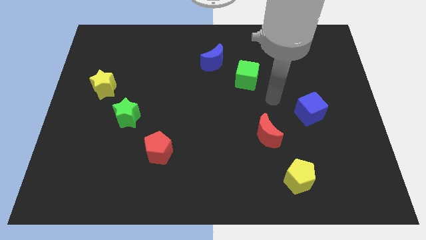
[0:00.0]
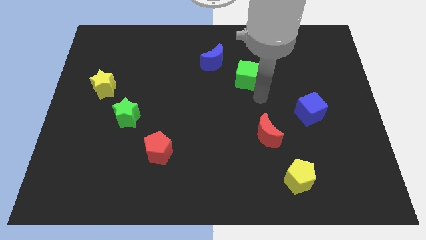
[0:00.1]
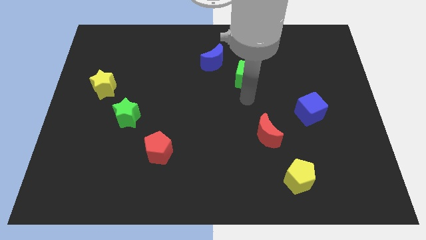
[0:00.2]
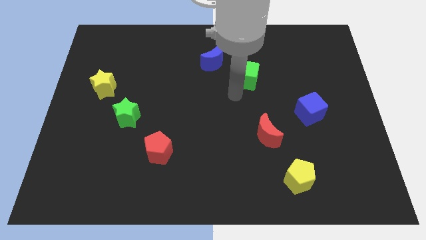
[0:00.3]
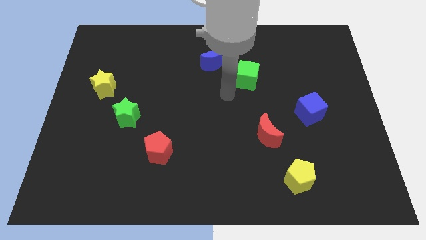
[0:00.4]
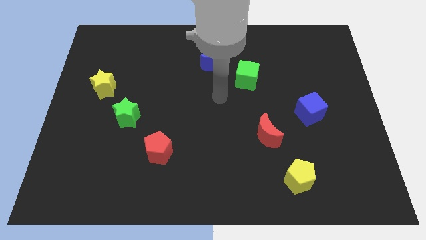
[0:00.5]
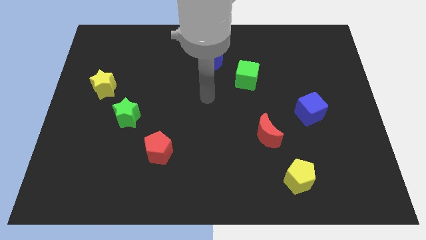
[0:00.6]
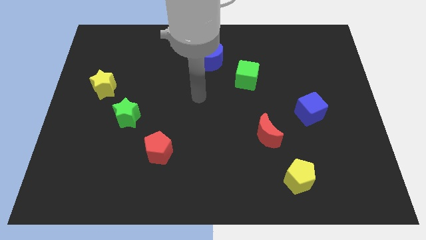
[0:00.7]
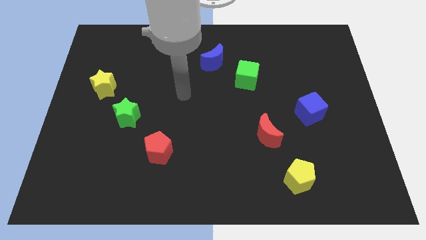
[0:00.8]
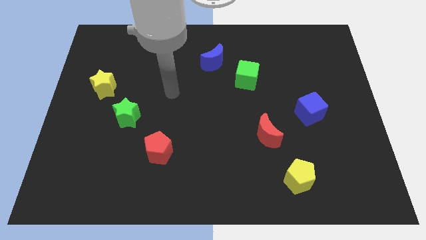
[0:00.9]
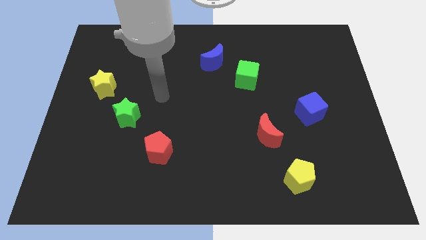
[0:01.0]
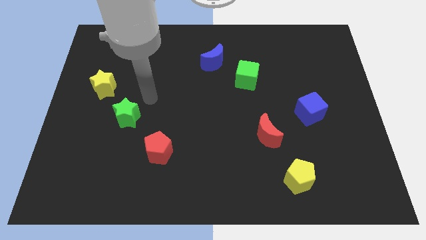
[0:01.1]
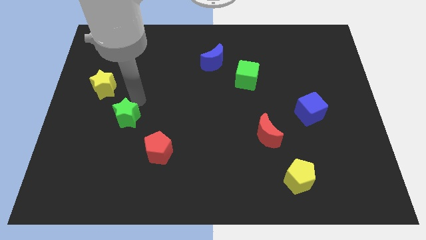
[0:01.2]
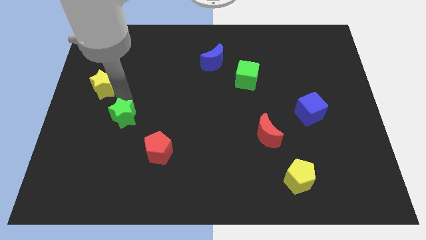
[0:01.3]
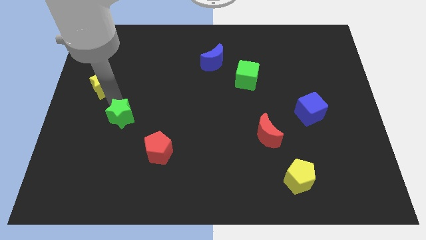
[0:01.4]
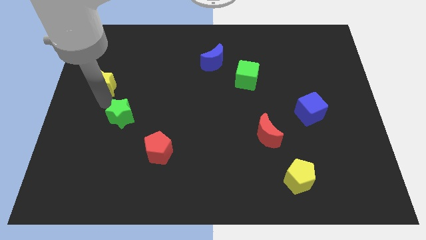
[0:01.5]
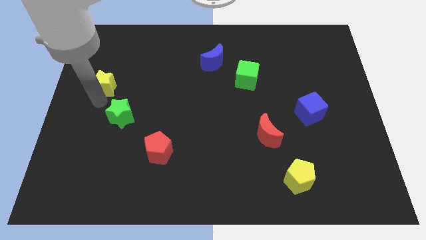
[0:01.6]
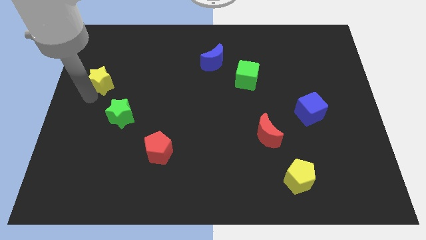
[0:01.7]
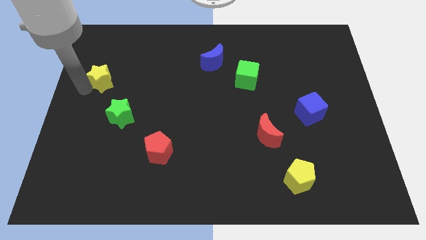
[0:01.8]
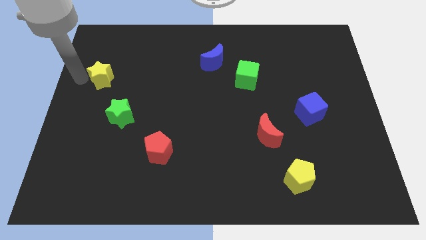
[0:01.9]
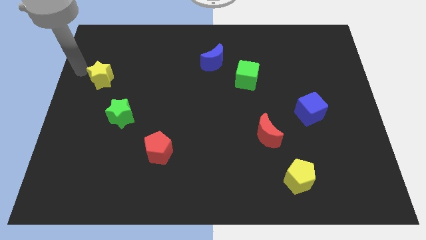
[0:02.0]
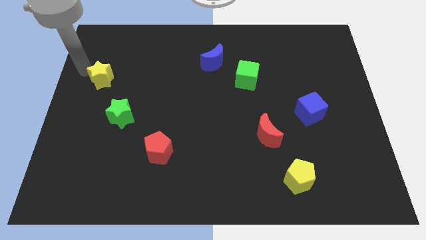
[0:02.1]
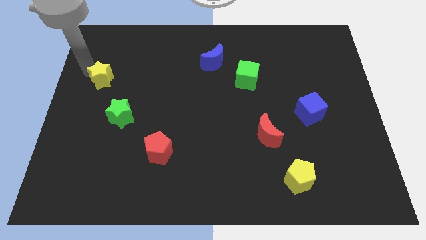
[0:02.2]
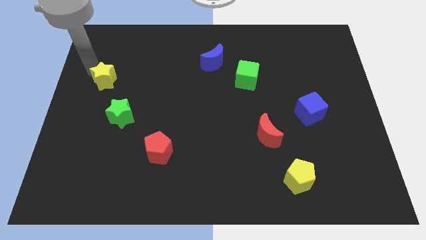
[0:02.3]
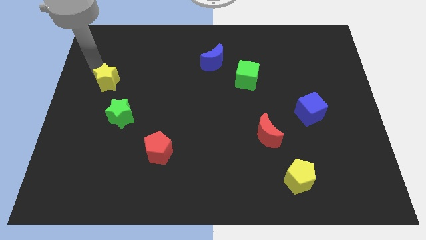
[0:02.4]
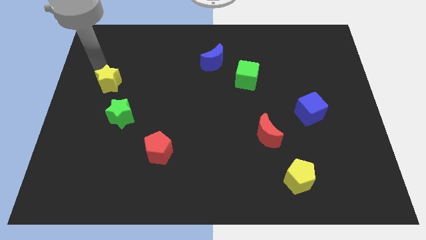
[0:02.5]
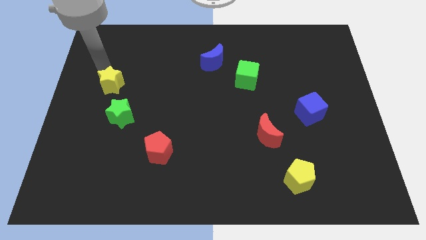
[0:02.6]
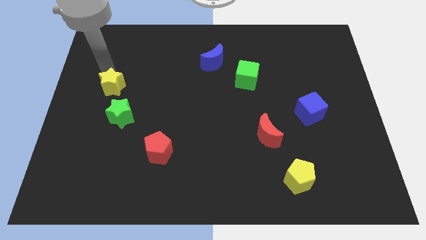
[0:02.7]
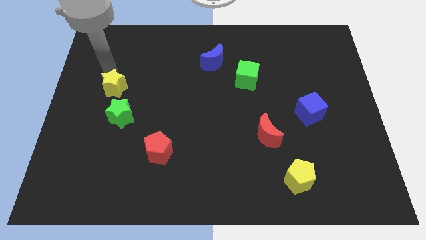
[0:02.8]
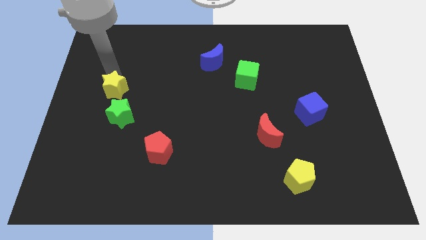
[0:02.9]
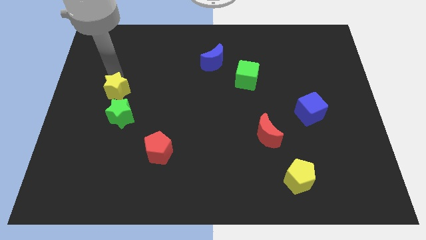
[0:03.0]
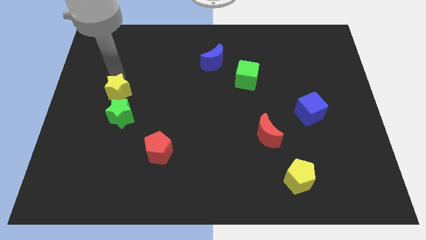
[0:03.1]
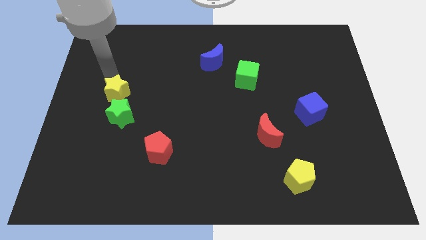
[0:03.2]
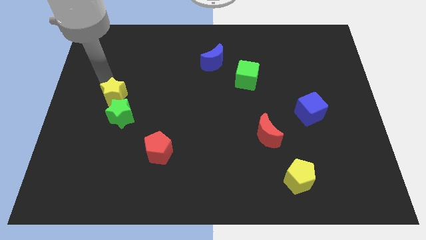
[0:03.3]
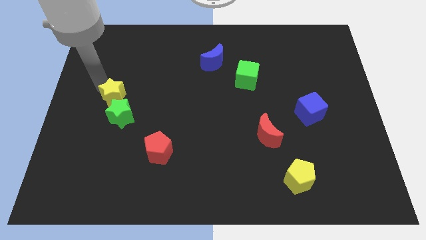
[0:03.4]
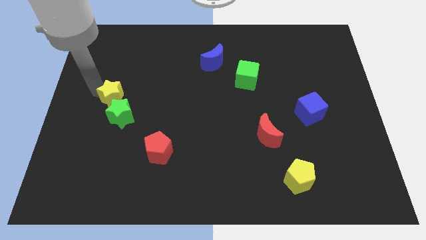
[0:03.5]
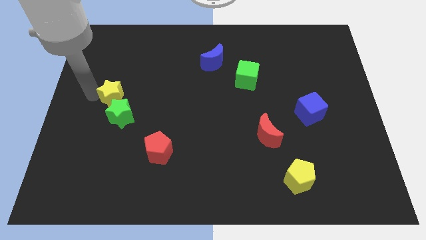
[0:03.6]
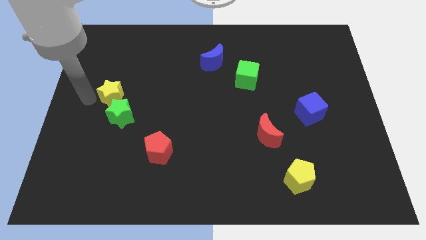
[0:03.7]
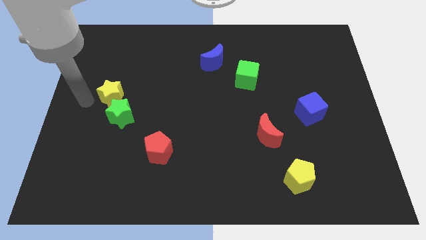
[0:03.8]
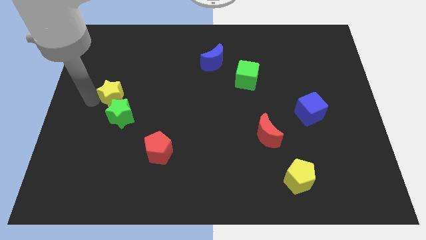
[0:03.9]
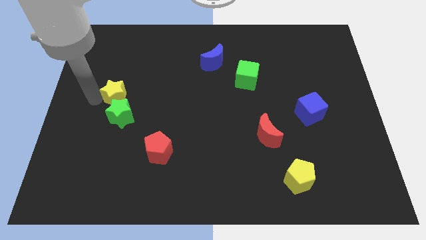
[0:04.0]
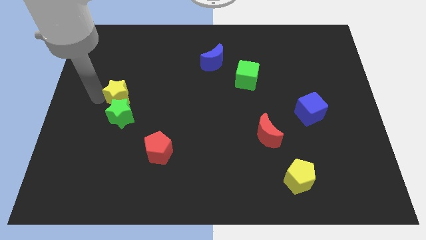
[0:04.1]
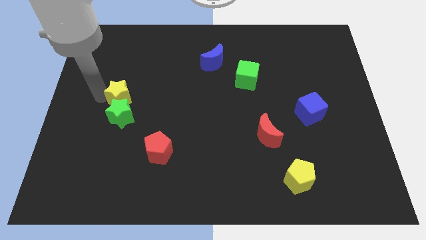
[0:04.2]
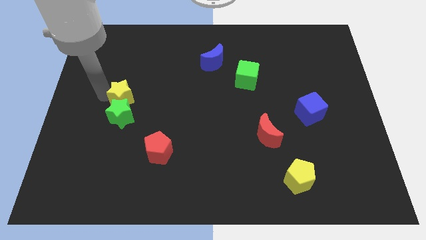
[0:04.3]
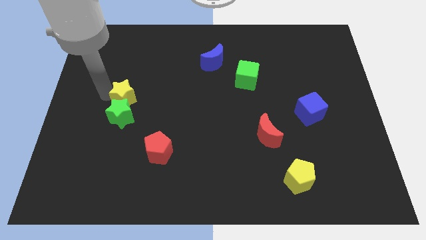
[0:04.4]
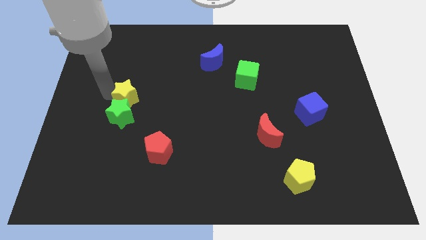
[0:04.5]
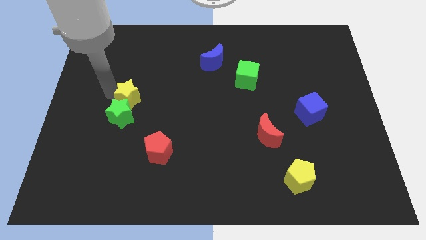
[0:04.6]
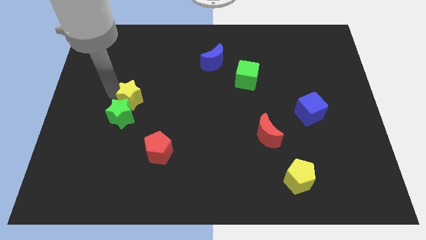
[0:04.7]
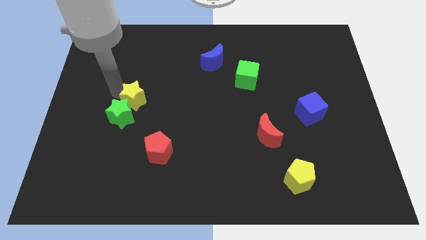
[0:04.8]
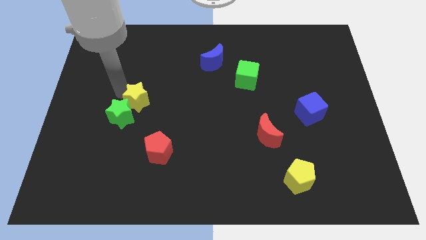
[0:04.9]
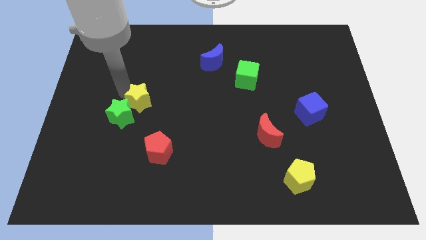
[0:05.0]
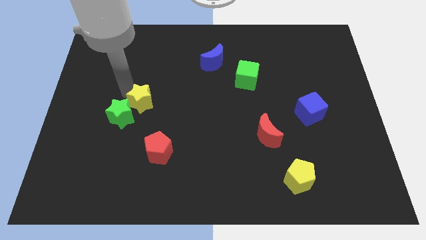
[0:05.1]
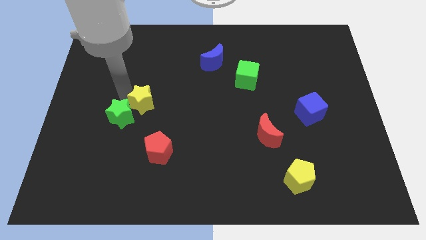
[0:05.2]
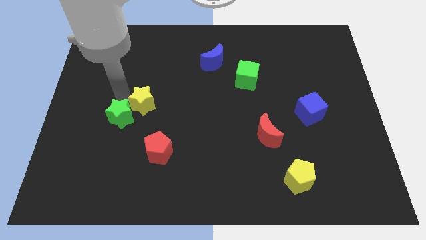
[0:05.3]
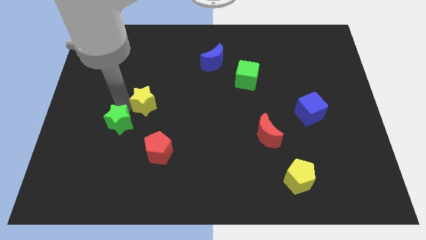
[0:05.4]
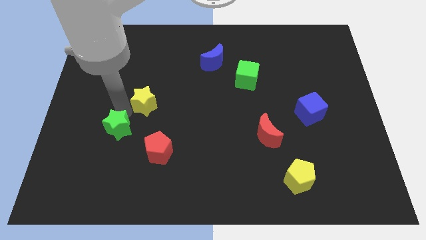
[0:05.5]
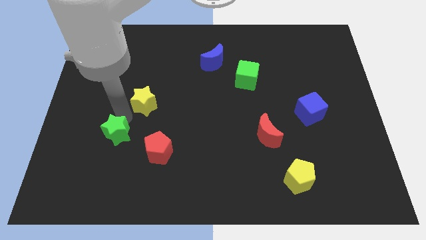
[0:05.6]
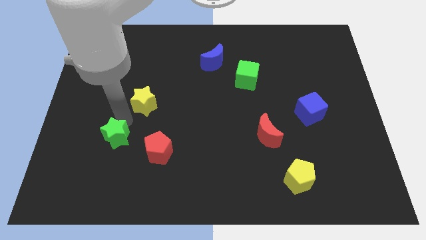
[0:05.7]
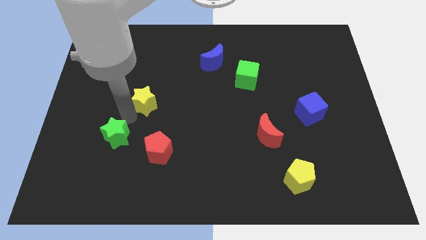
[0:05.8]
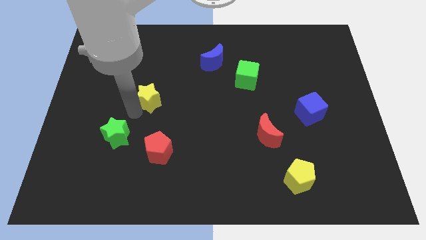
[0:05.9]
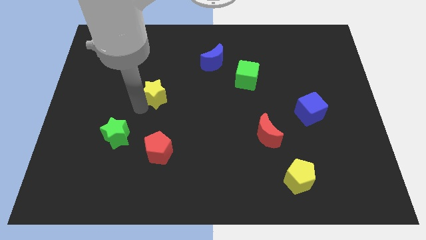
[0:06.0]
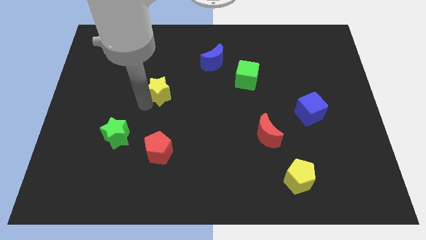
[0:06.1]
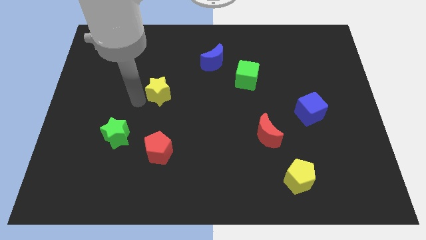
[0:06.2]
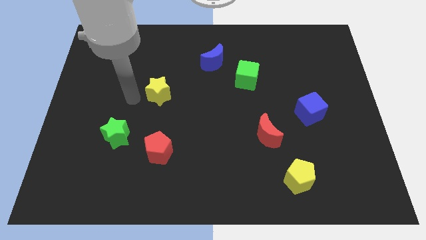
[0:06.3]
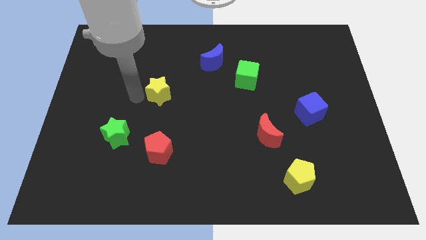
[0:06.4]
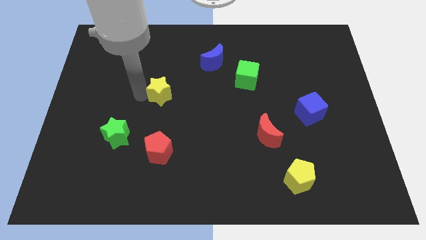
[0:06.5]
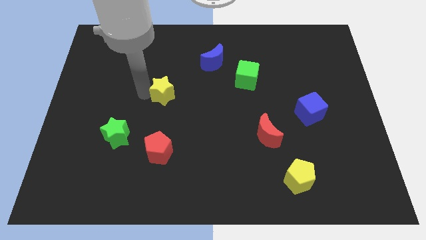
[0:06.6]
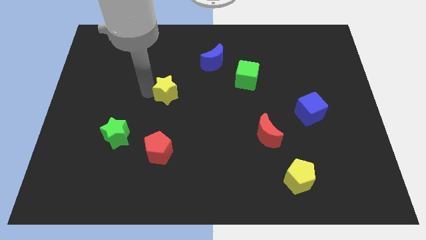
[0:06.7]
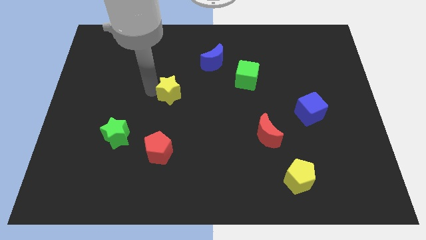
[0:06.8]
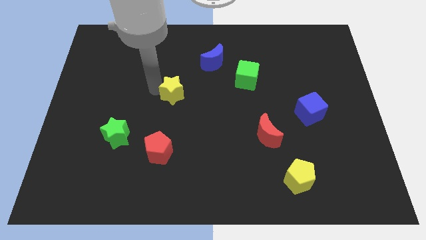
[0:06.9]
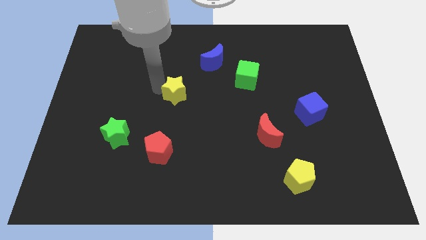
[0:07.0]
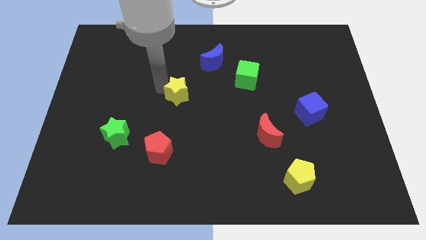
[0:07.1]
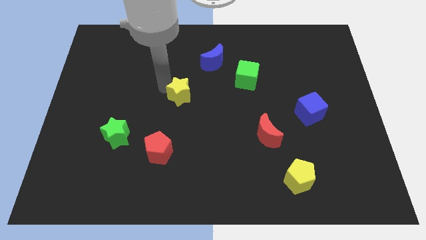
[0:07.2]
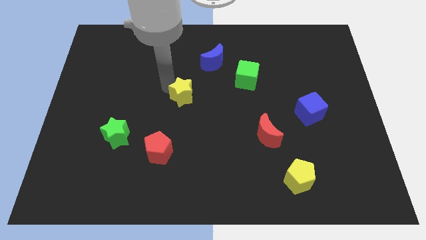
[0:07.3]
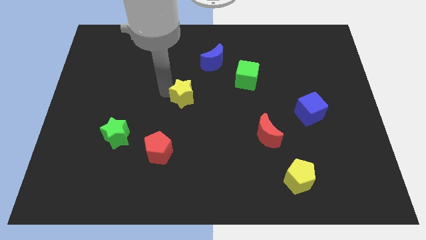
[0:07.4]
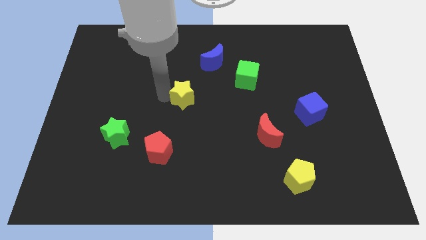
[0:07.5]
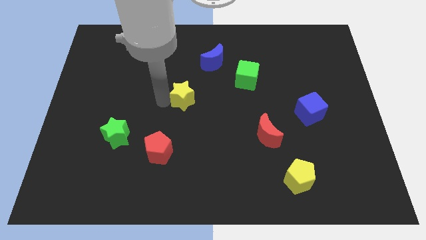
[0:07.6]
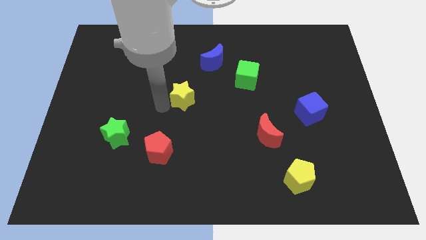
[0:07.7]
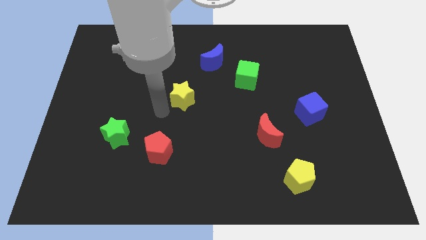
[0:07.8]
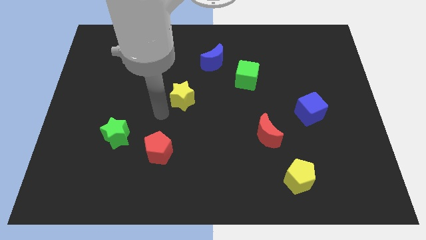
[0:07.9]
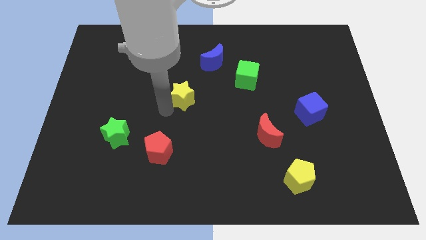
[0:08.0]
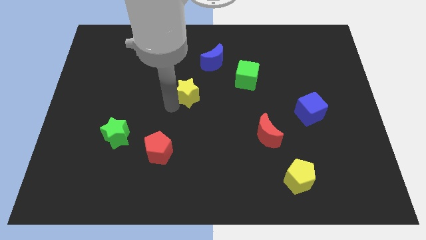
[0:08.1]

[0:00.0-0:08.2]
move the yellow star right
